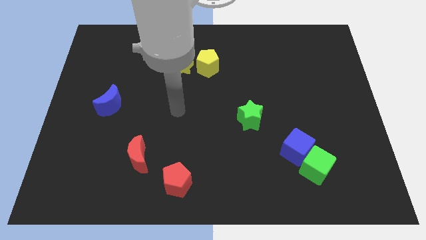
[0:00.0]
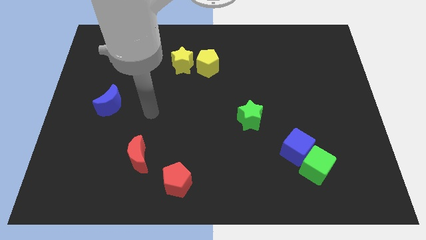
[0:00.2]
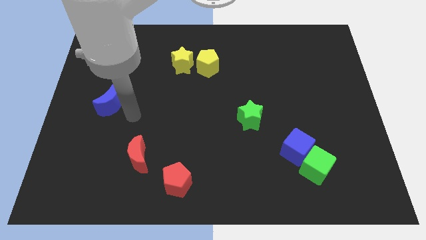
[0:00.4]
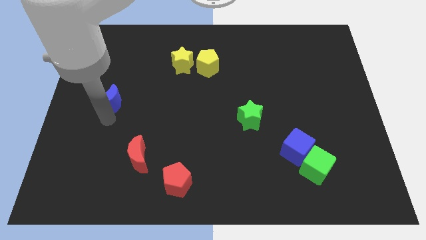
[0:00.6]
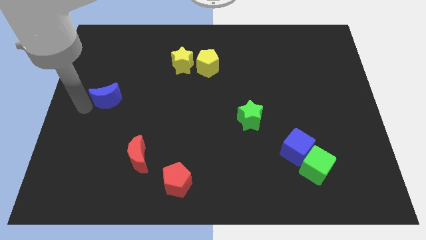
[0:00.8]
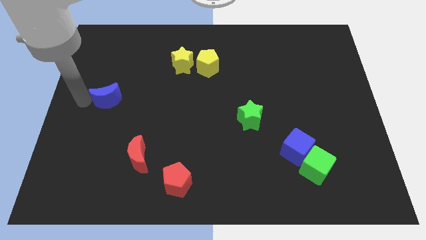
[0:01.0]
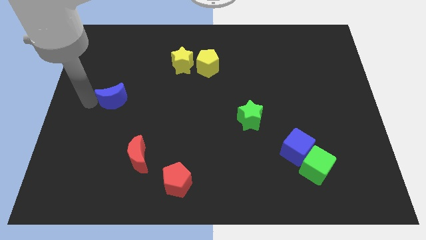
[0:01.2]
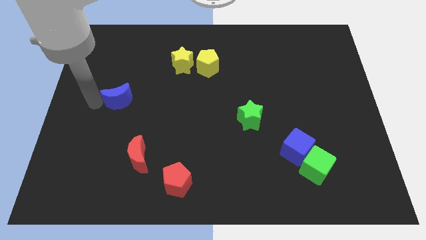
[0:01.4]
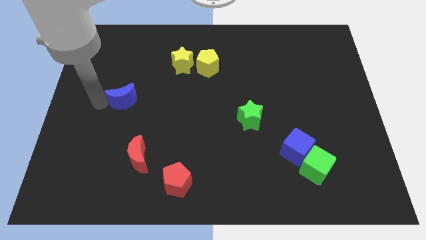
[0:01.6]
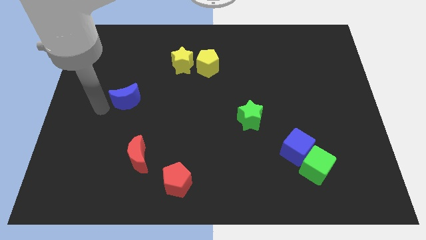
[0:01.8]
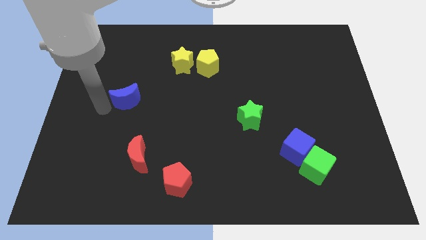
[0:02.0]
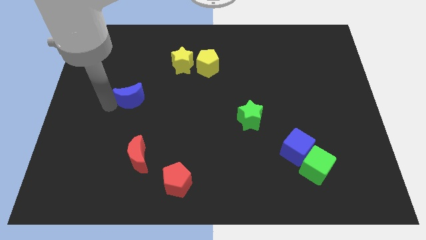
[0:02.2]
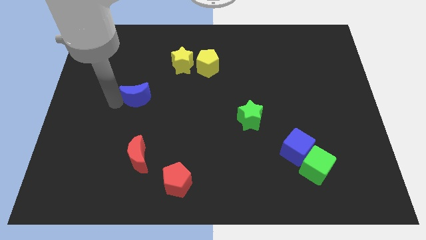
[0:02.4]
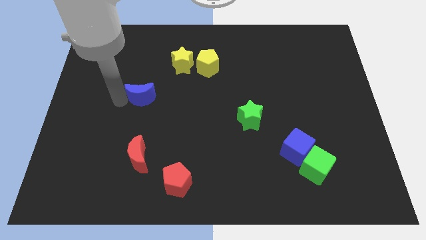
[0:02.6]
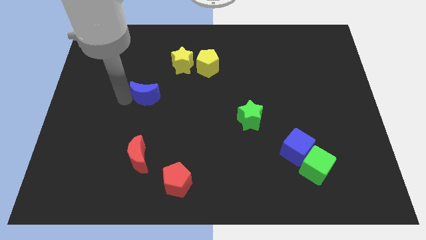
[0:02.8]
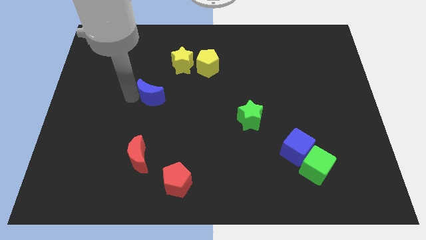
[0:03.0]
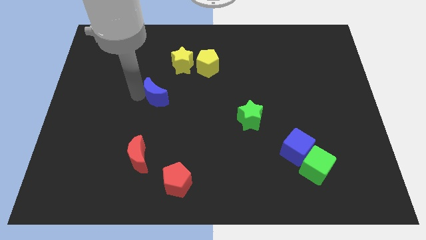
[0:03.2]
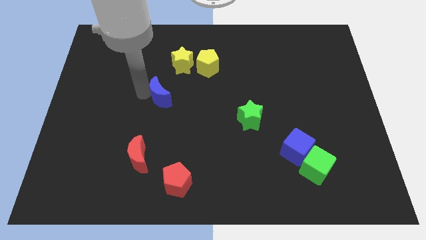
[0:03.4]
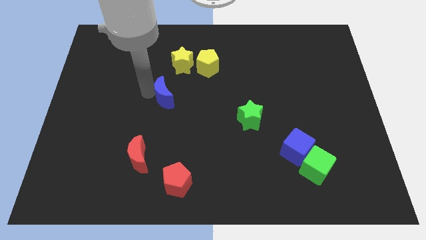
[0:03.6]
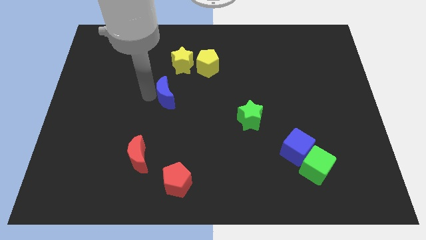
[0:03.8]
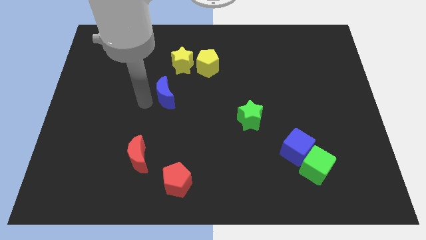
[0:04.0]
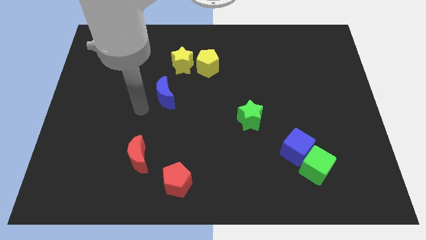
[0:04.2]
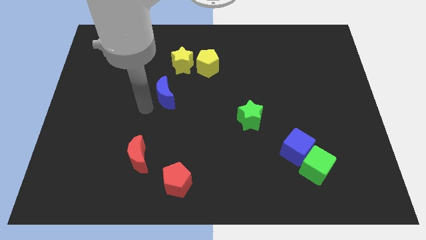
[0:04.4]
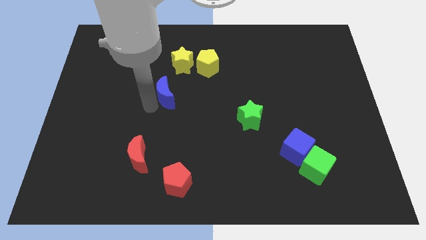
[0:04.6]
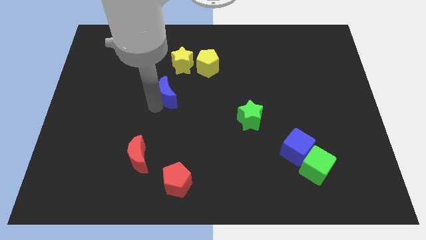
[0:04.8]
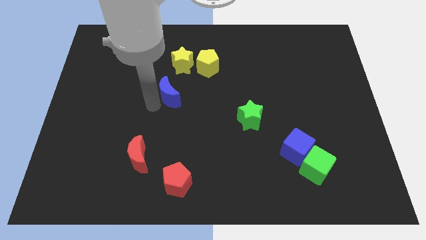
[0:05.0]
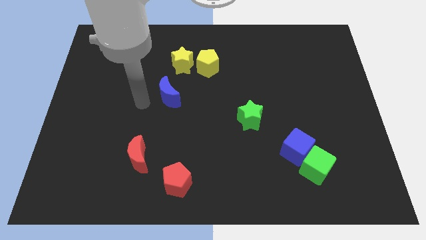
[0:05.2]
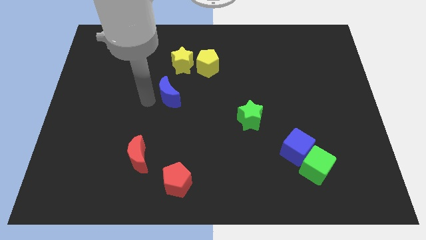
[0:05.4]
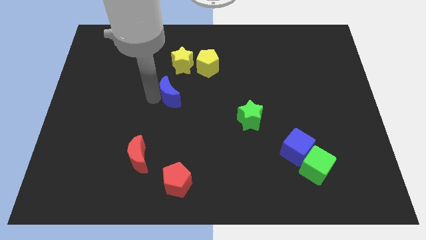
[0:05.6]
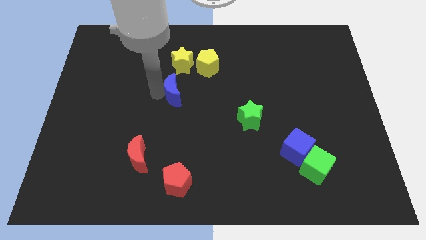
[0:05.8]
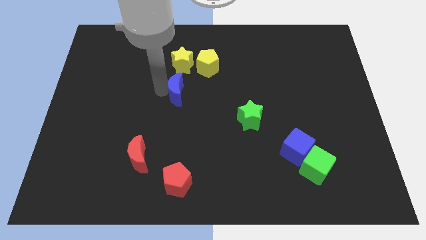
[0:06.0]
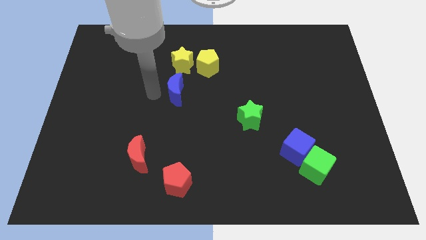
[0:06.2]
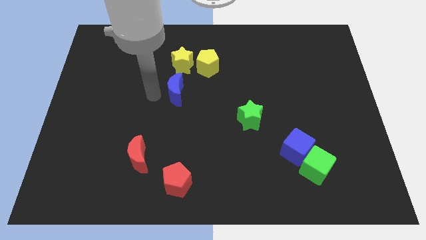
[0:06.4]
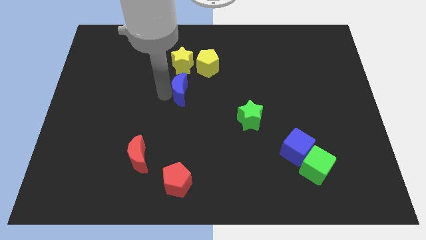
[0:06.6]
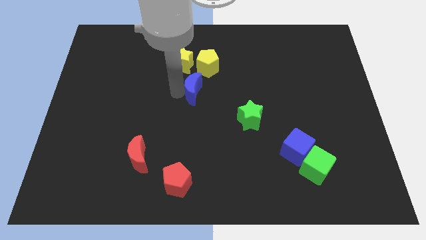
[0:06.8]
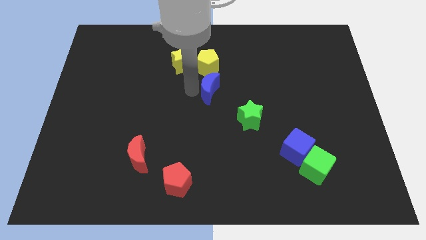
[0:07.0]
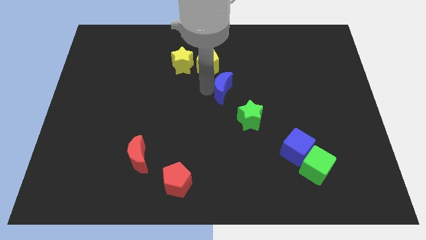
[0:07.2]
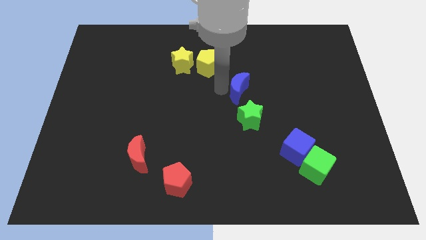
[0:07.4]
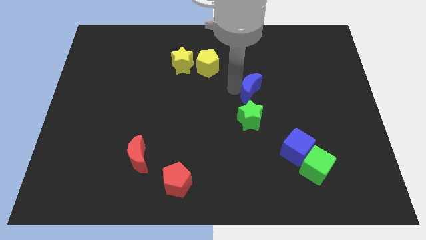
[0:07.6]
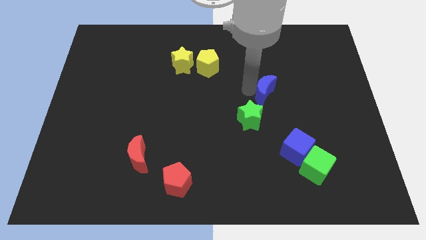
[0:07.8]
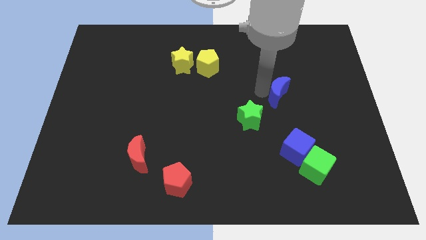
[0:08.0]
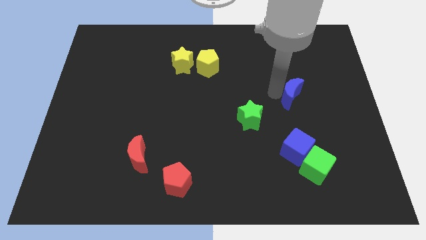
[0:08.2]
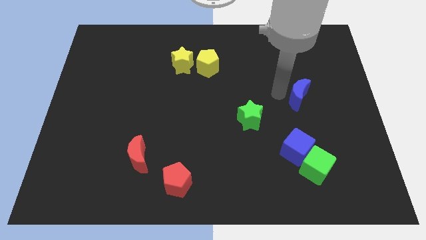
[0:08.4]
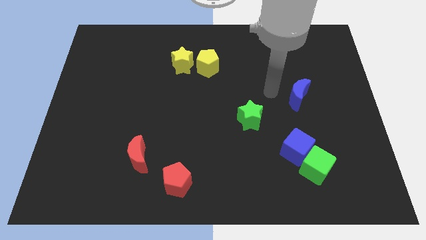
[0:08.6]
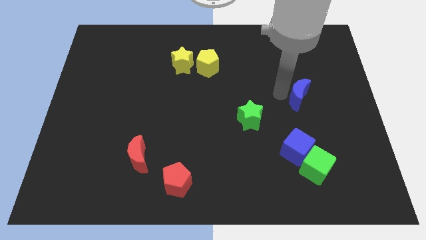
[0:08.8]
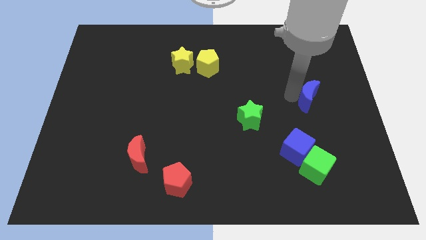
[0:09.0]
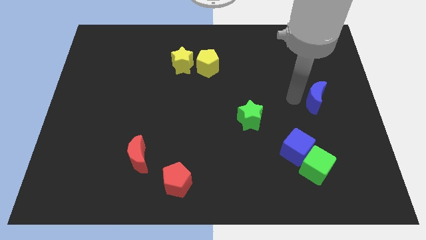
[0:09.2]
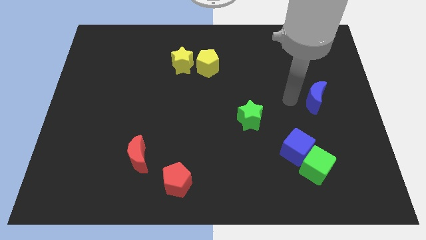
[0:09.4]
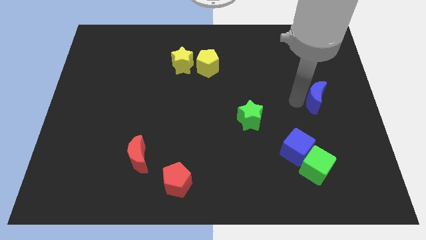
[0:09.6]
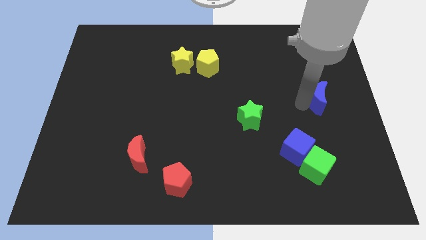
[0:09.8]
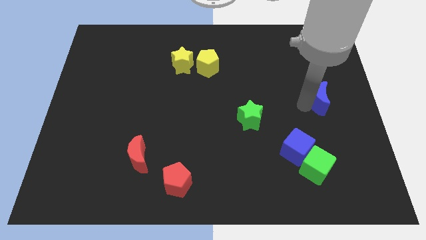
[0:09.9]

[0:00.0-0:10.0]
move the blue moon to the right side of the board

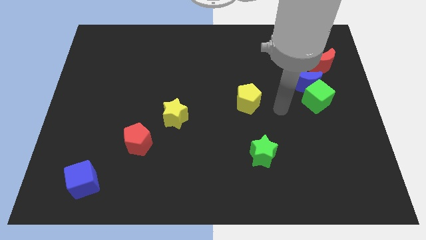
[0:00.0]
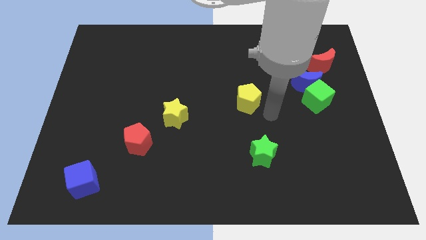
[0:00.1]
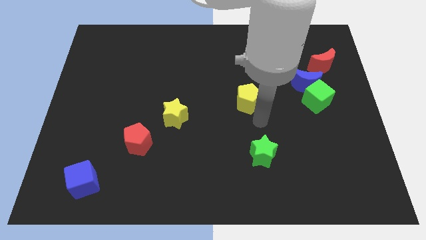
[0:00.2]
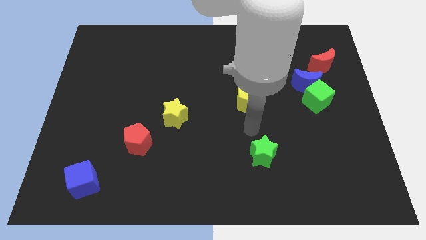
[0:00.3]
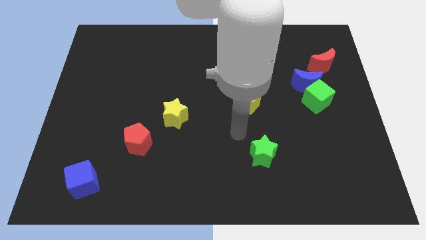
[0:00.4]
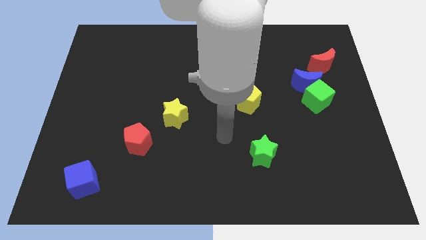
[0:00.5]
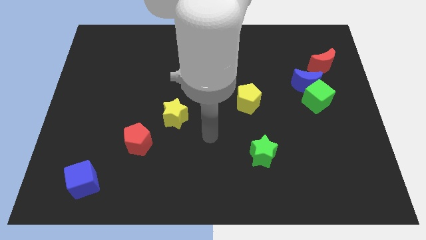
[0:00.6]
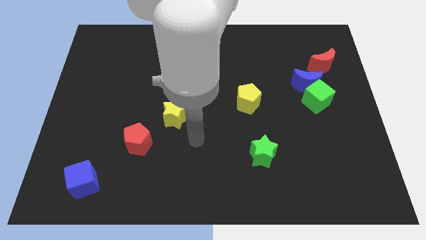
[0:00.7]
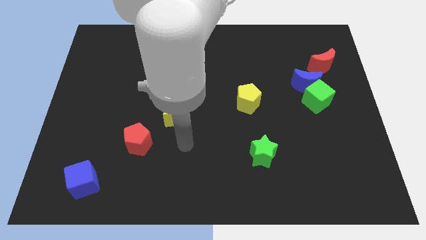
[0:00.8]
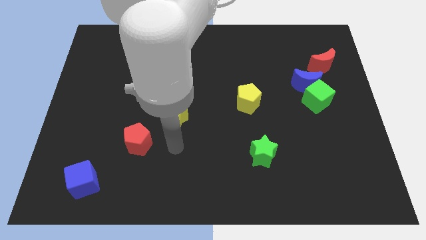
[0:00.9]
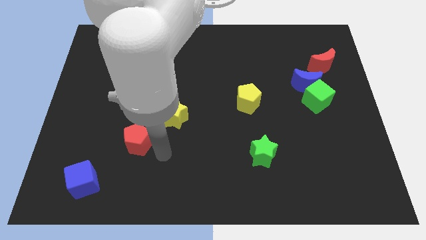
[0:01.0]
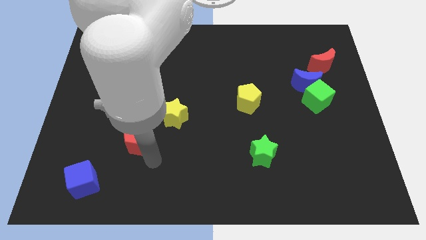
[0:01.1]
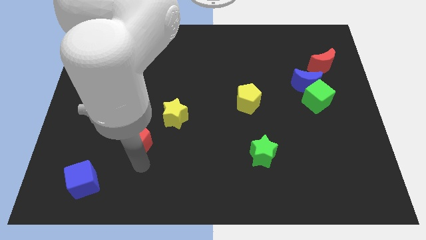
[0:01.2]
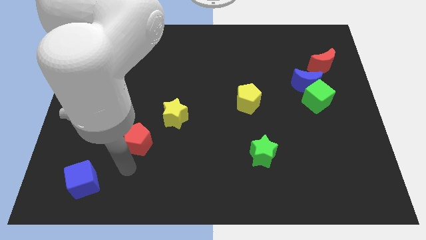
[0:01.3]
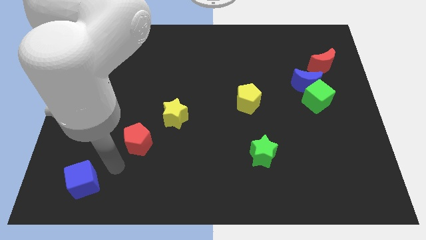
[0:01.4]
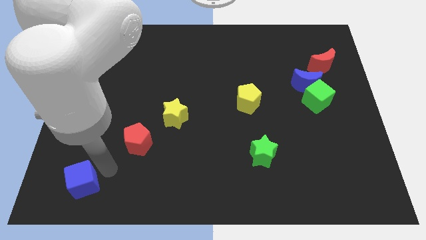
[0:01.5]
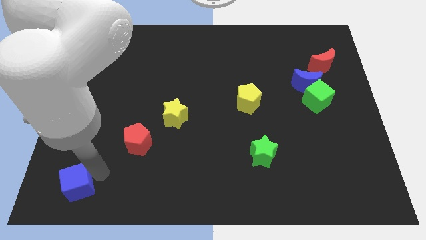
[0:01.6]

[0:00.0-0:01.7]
push the blue cube to the bottom left
